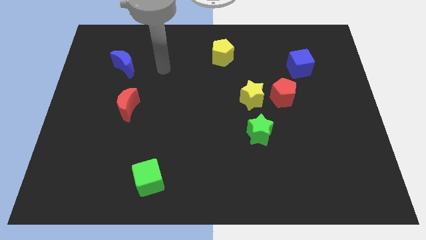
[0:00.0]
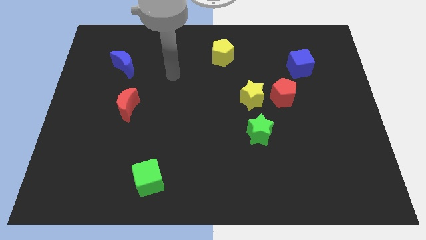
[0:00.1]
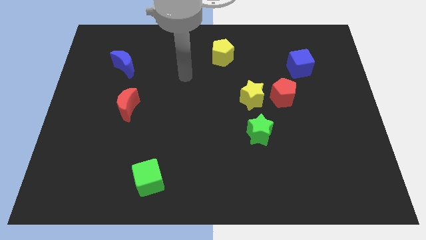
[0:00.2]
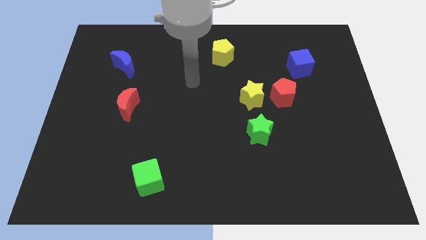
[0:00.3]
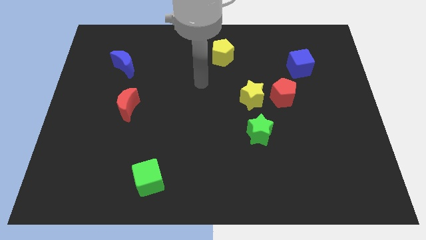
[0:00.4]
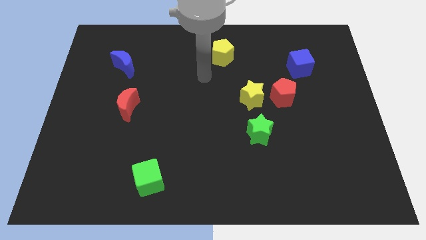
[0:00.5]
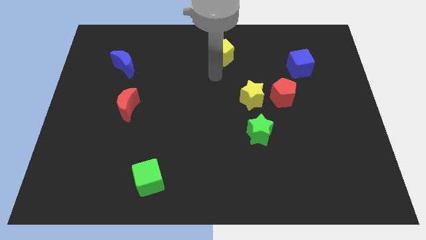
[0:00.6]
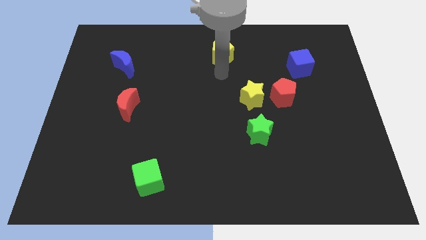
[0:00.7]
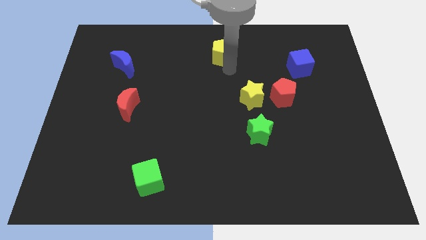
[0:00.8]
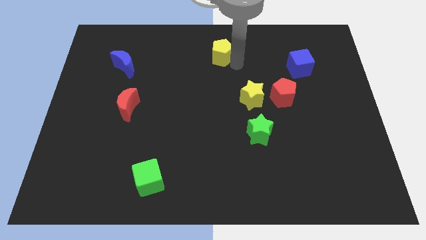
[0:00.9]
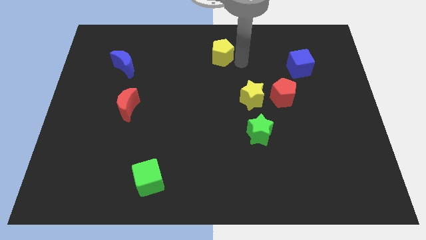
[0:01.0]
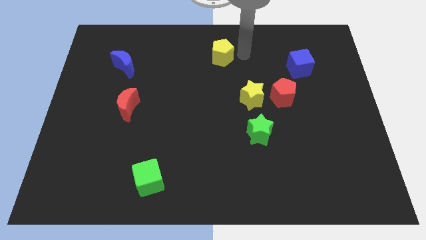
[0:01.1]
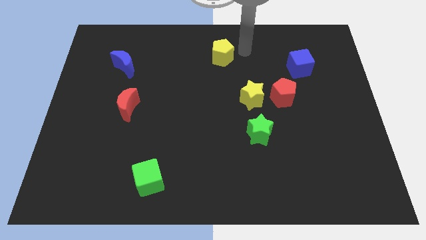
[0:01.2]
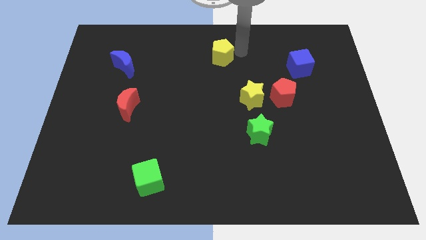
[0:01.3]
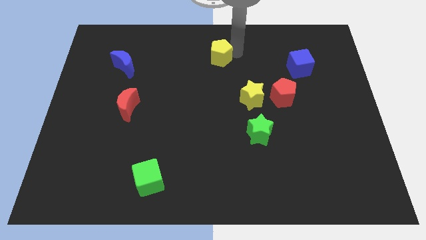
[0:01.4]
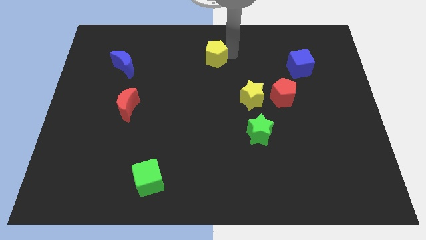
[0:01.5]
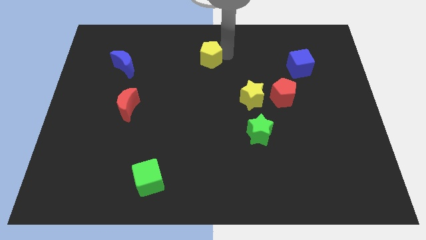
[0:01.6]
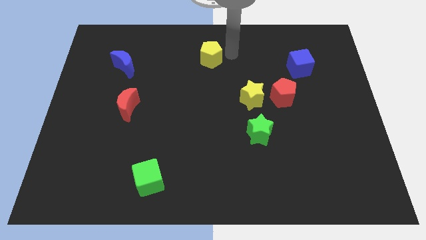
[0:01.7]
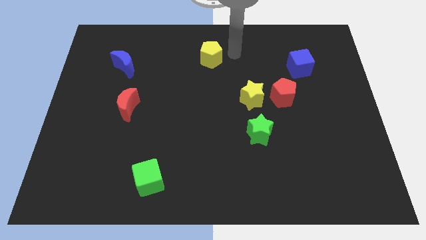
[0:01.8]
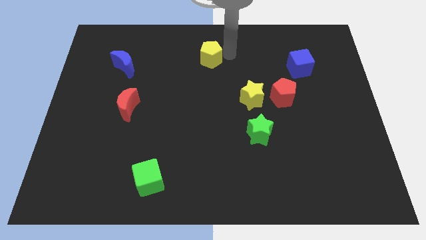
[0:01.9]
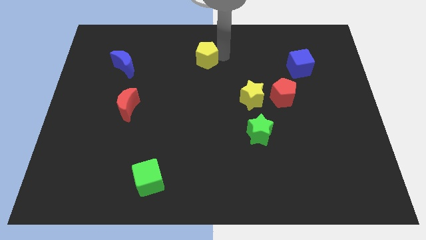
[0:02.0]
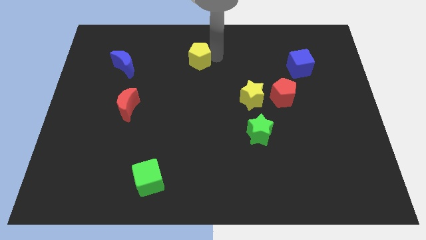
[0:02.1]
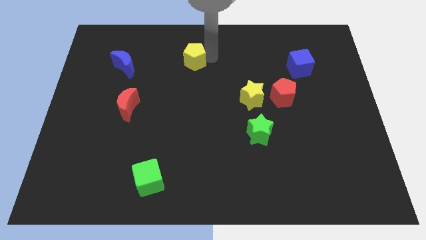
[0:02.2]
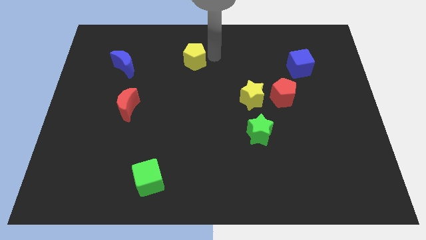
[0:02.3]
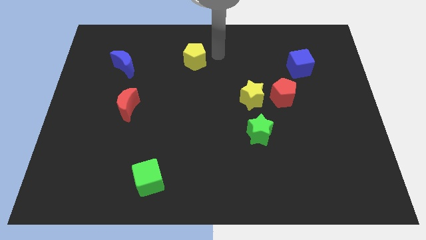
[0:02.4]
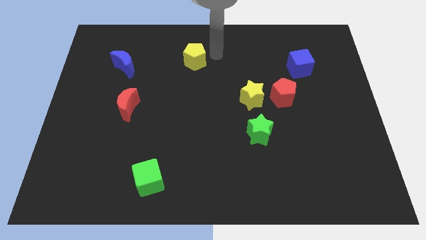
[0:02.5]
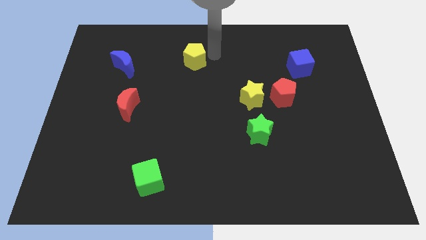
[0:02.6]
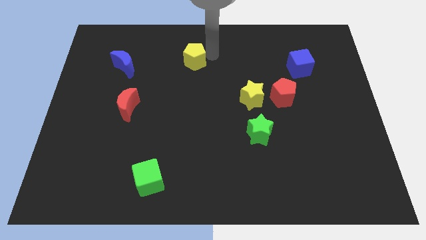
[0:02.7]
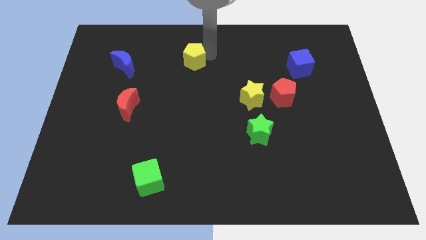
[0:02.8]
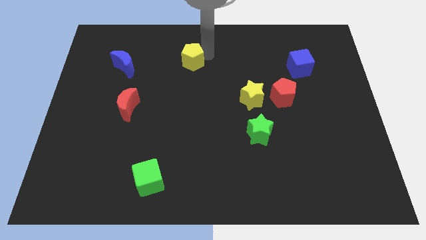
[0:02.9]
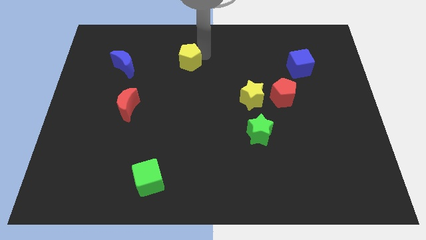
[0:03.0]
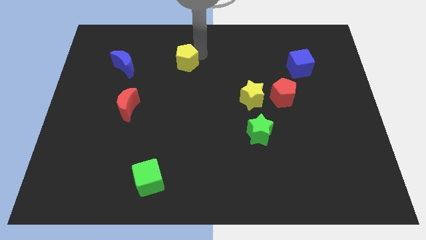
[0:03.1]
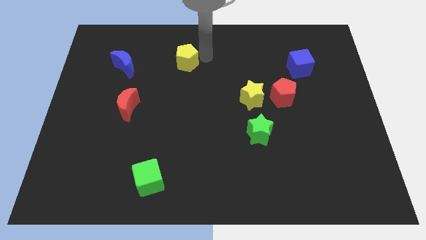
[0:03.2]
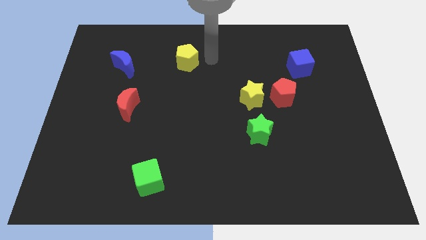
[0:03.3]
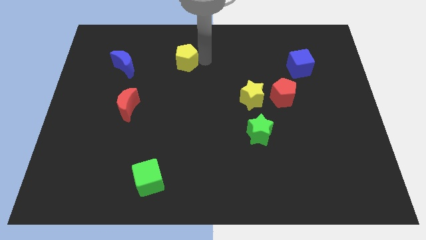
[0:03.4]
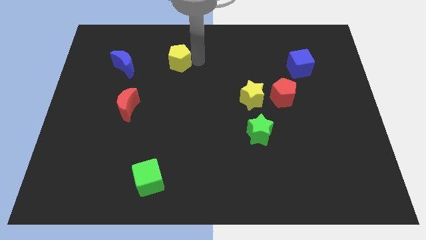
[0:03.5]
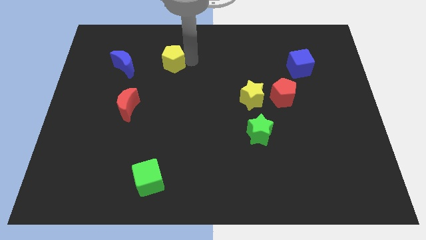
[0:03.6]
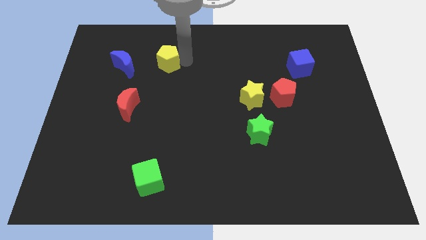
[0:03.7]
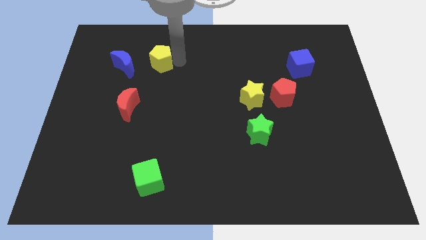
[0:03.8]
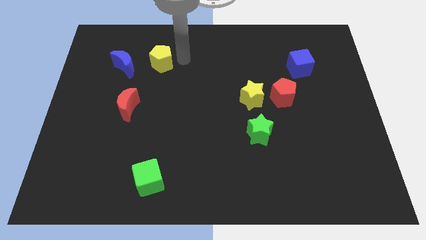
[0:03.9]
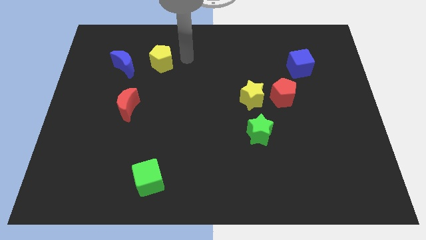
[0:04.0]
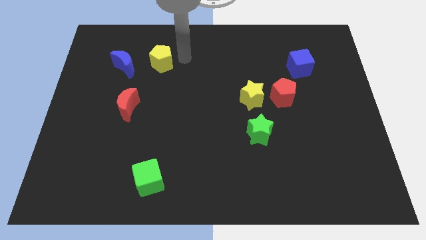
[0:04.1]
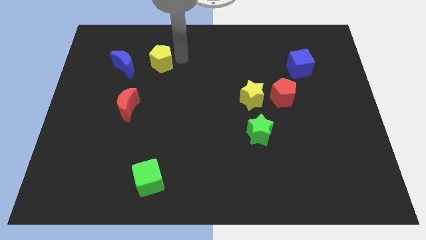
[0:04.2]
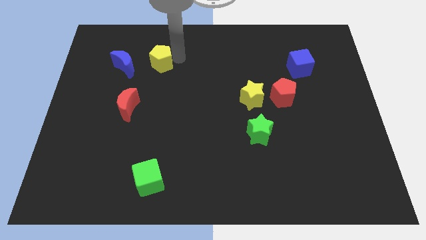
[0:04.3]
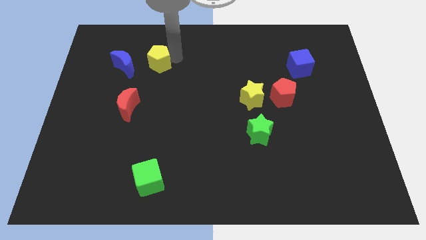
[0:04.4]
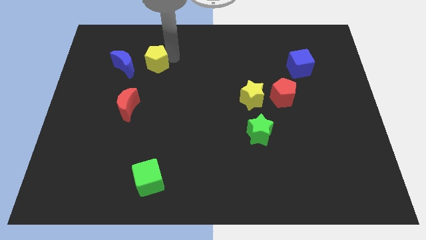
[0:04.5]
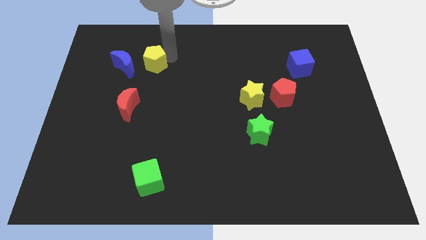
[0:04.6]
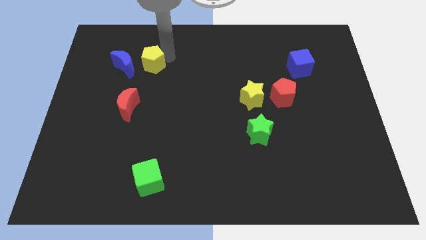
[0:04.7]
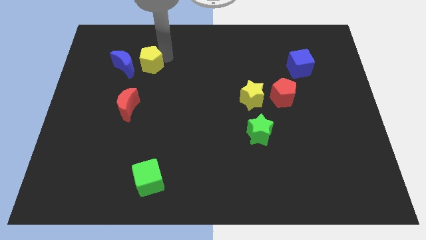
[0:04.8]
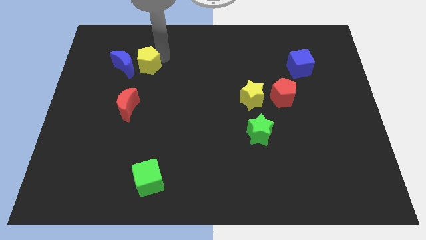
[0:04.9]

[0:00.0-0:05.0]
slide the yellow pentagon close to the blue moon

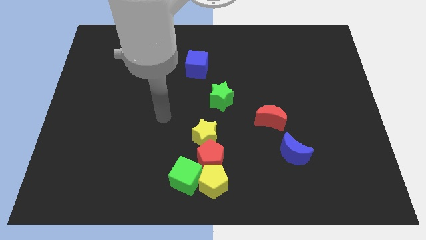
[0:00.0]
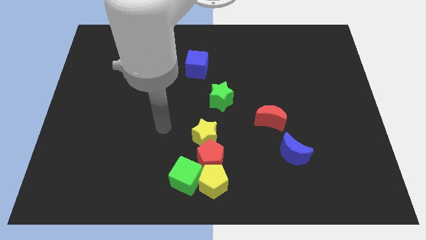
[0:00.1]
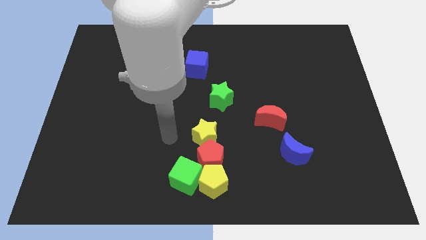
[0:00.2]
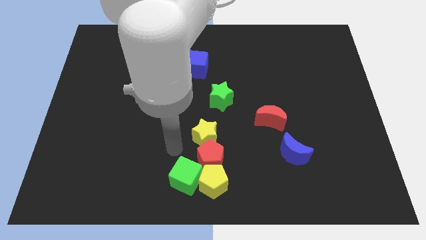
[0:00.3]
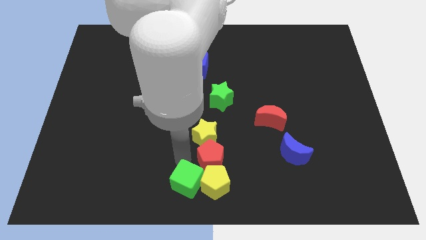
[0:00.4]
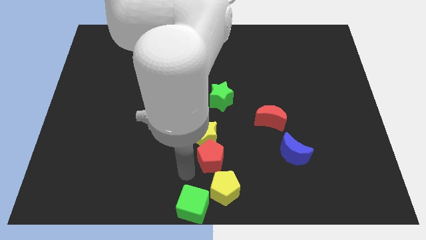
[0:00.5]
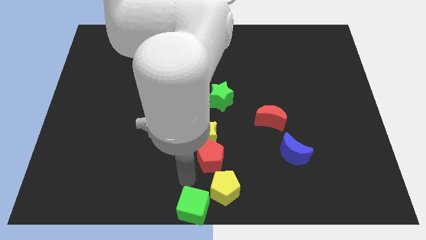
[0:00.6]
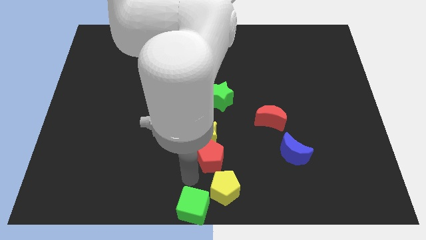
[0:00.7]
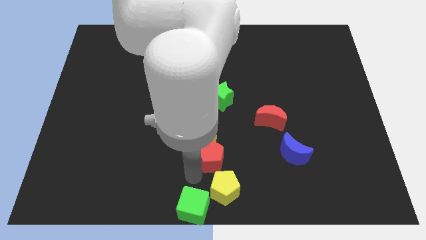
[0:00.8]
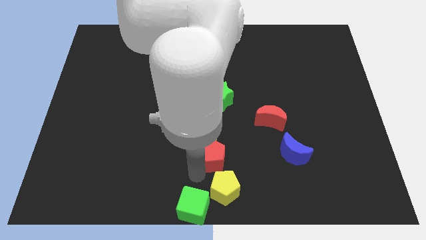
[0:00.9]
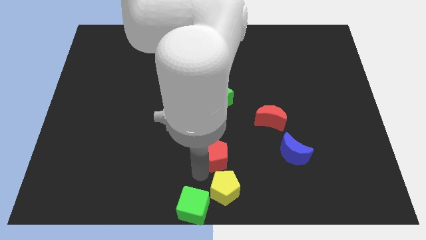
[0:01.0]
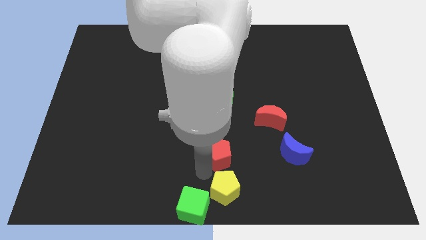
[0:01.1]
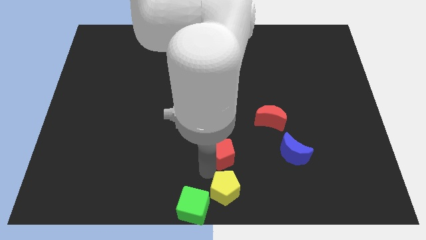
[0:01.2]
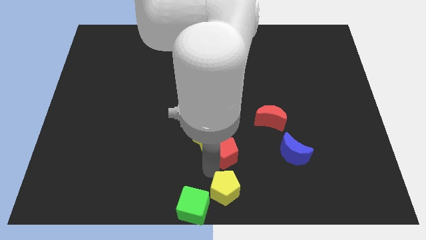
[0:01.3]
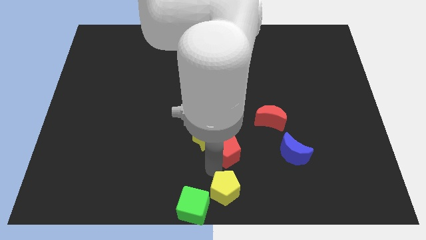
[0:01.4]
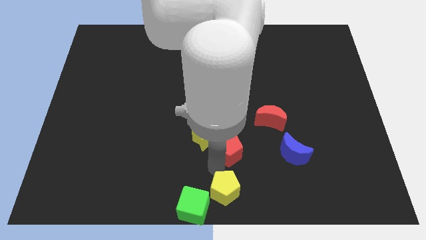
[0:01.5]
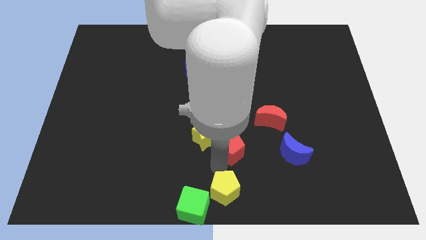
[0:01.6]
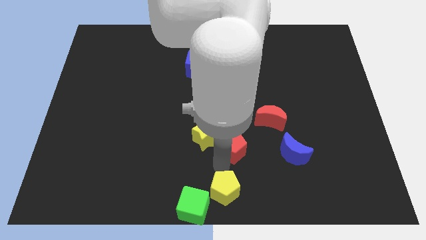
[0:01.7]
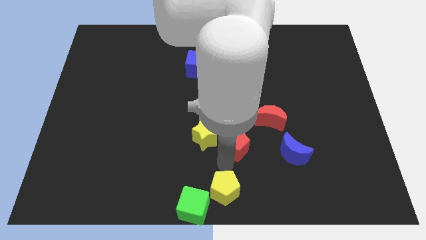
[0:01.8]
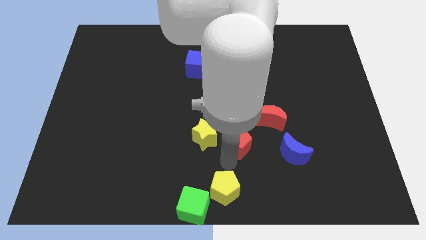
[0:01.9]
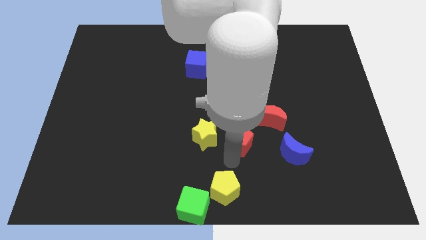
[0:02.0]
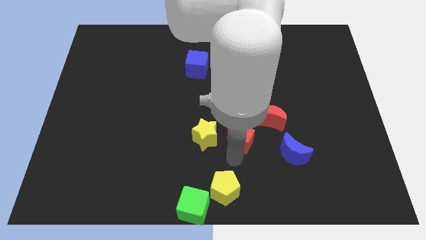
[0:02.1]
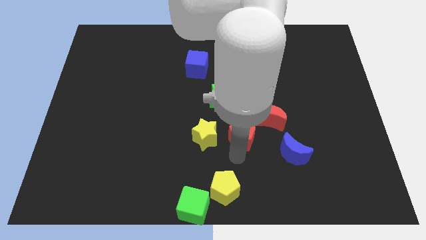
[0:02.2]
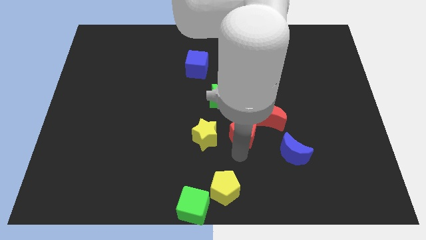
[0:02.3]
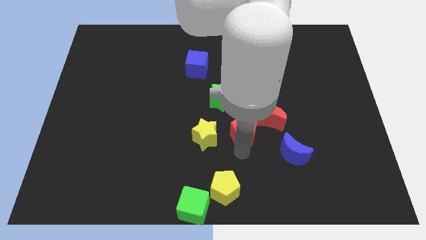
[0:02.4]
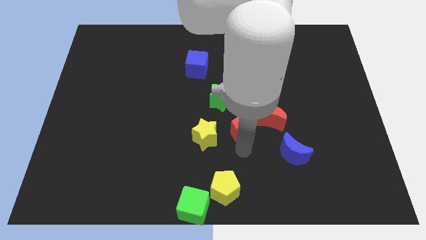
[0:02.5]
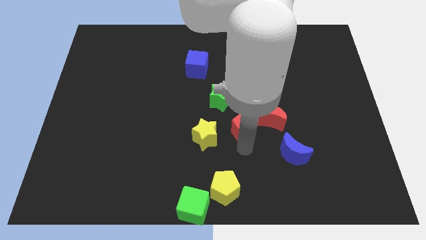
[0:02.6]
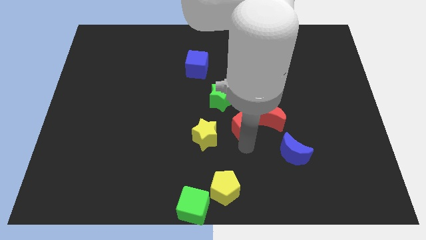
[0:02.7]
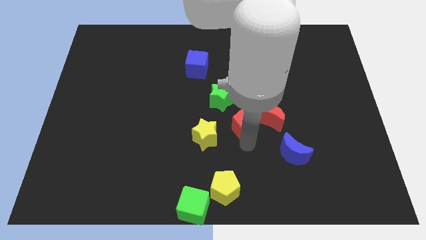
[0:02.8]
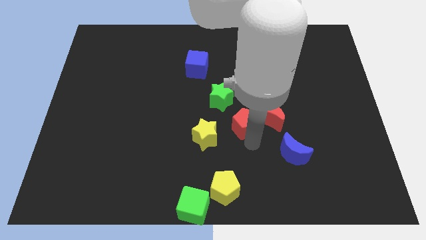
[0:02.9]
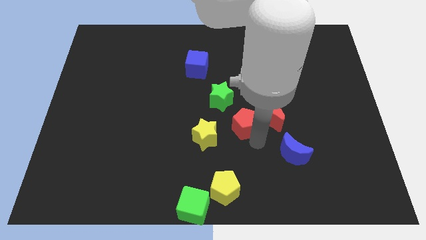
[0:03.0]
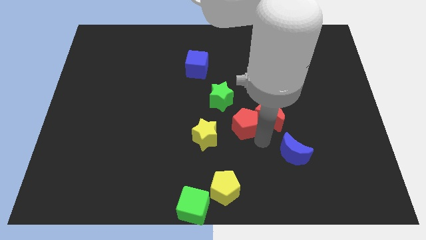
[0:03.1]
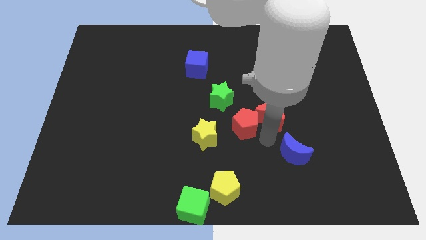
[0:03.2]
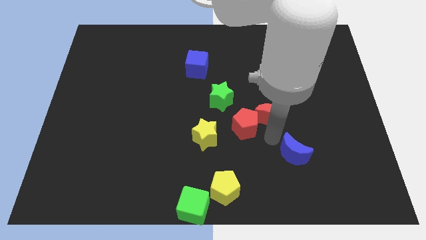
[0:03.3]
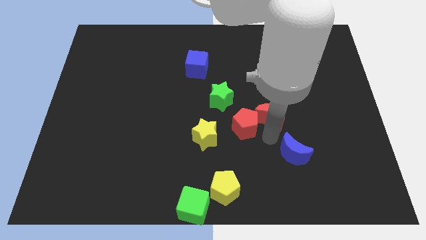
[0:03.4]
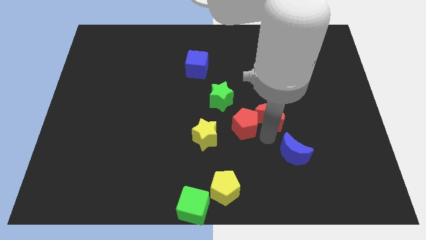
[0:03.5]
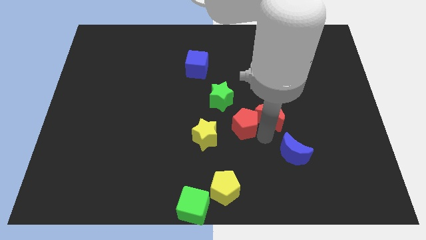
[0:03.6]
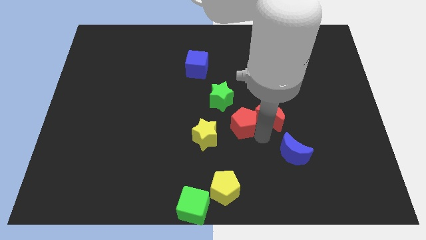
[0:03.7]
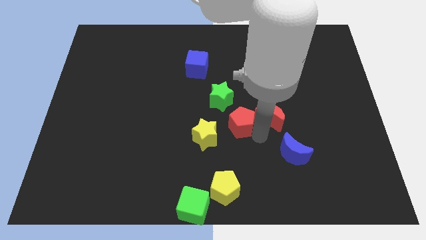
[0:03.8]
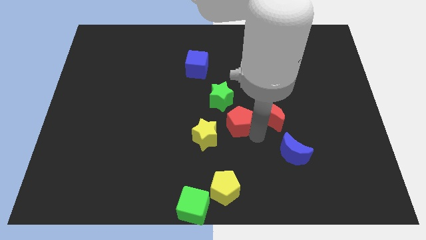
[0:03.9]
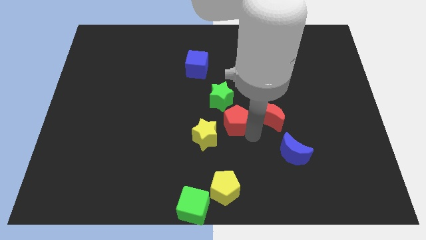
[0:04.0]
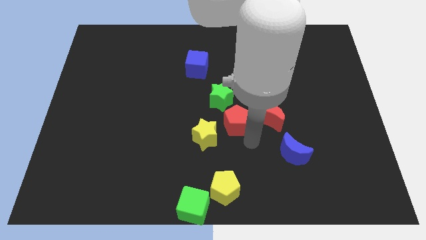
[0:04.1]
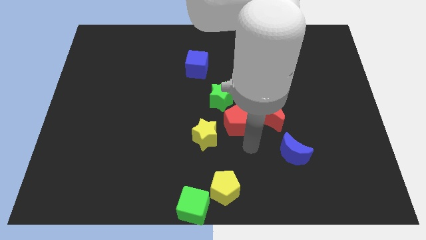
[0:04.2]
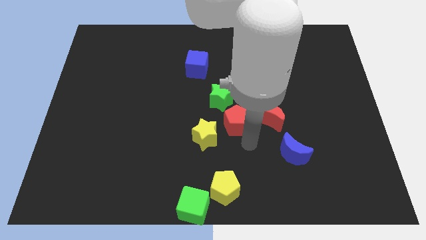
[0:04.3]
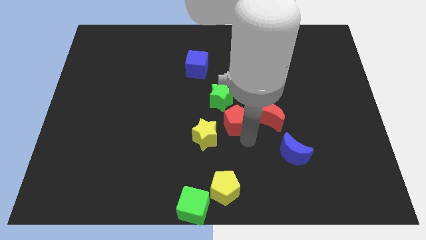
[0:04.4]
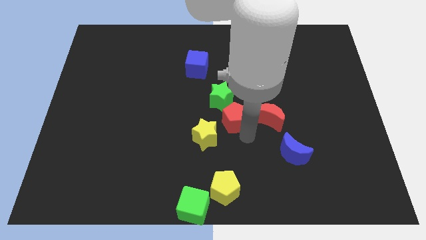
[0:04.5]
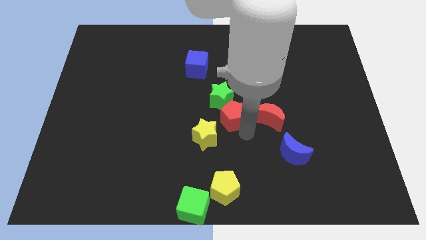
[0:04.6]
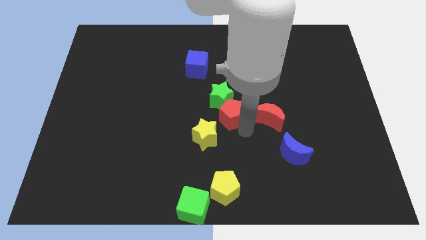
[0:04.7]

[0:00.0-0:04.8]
move the red pentagon close to the green star
